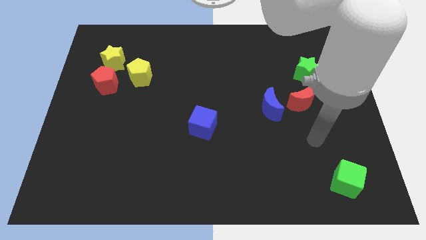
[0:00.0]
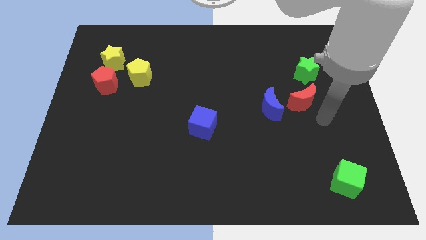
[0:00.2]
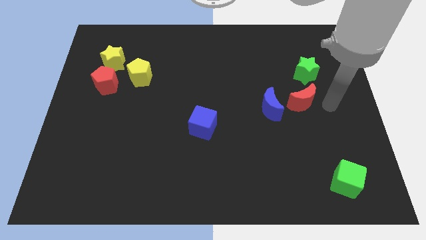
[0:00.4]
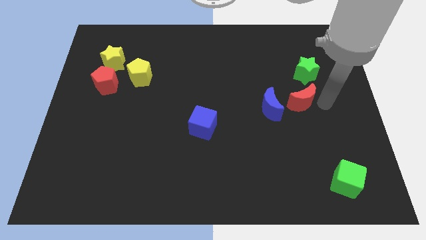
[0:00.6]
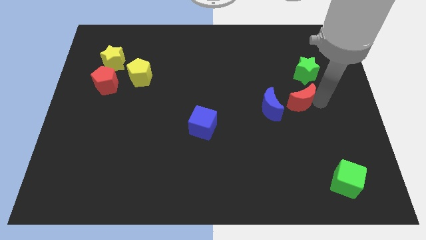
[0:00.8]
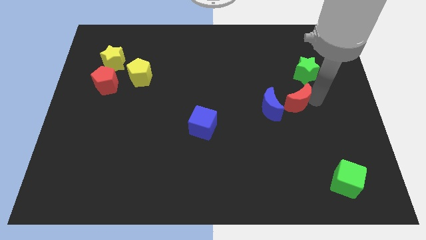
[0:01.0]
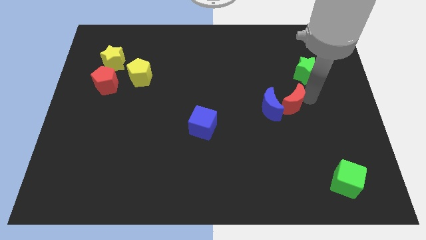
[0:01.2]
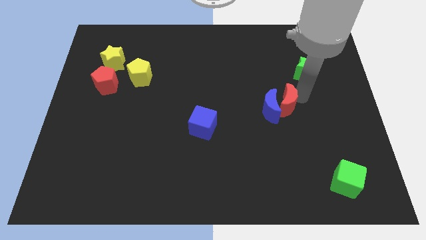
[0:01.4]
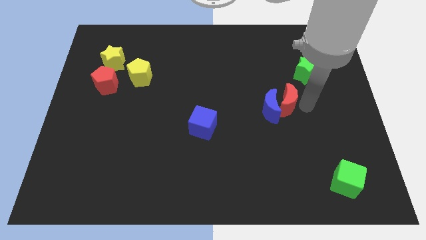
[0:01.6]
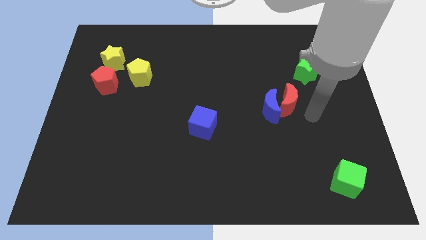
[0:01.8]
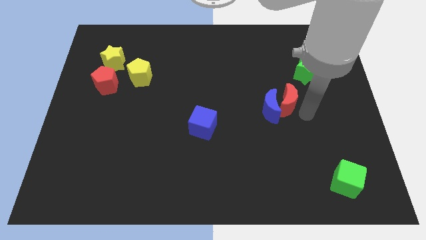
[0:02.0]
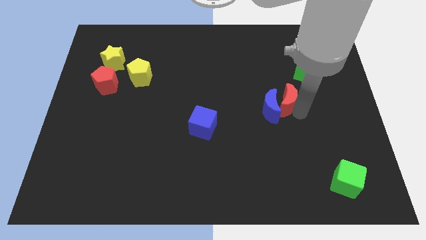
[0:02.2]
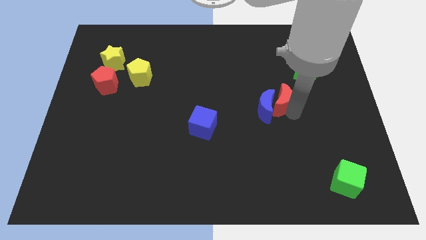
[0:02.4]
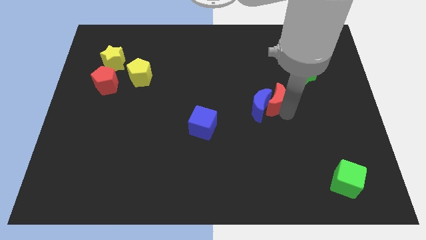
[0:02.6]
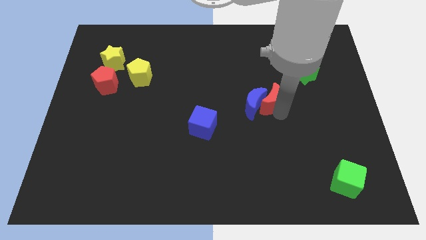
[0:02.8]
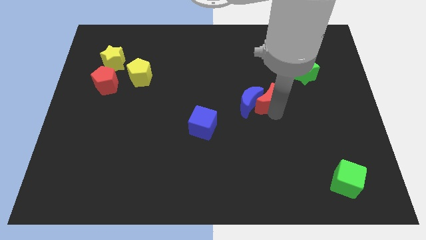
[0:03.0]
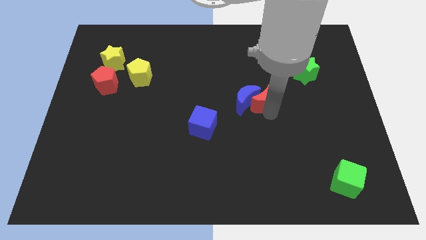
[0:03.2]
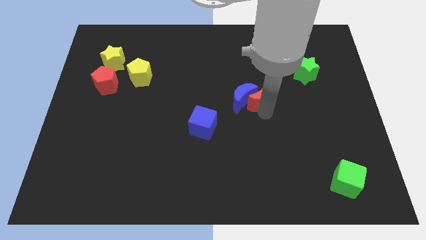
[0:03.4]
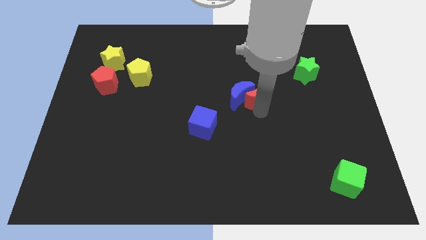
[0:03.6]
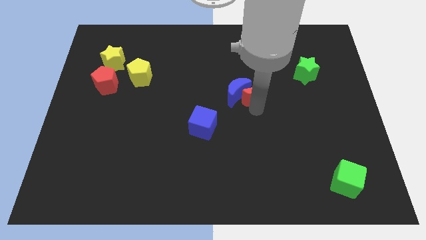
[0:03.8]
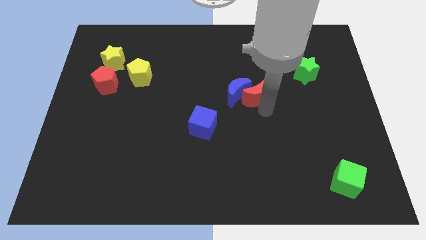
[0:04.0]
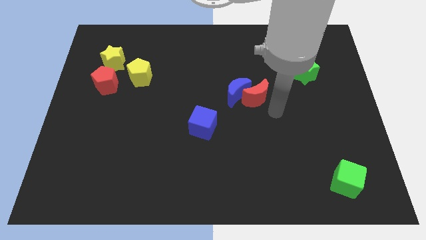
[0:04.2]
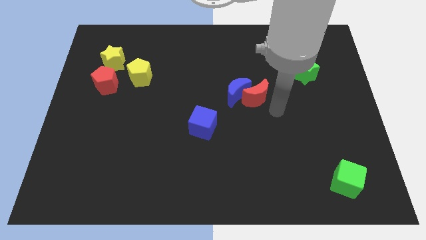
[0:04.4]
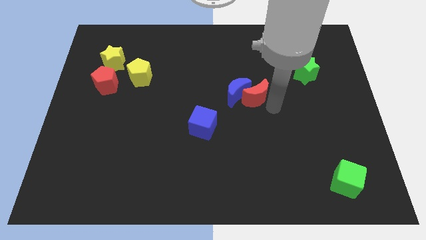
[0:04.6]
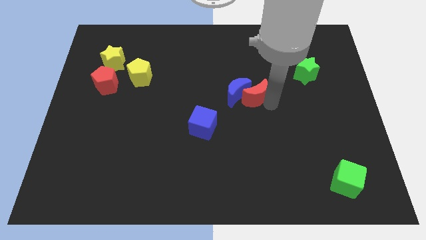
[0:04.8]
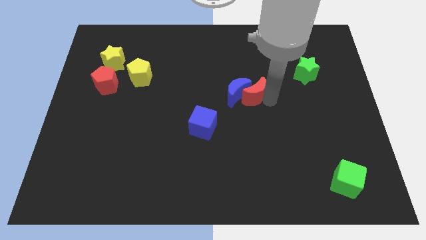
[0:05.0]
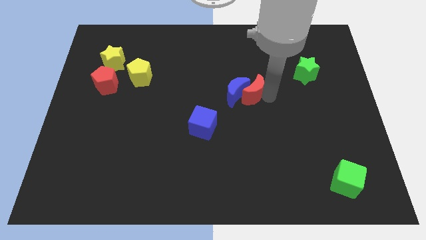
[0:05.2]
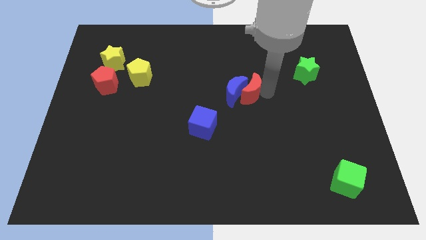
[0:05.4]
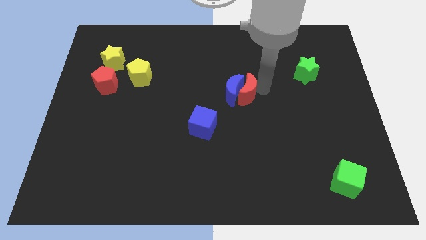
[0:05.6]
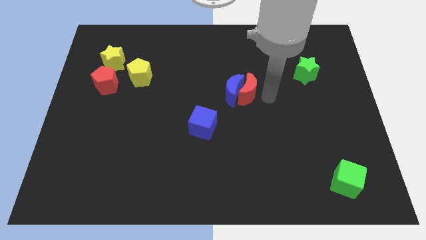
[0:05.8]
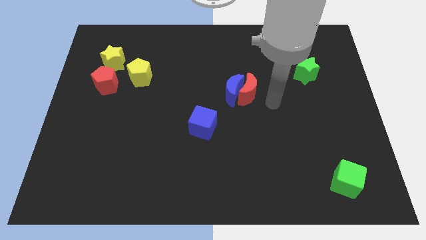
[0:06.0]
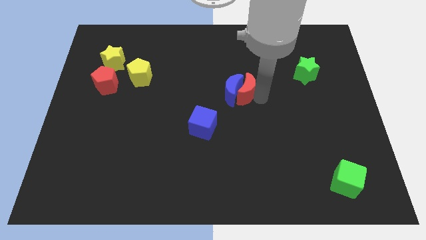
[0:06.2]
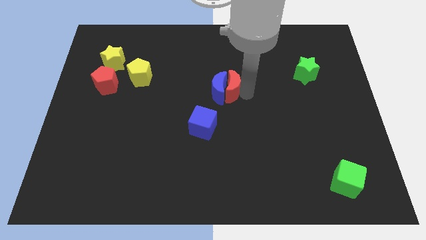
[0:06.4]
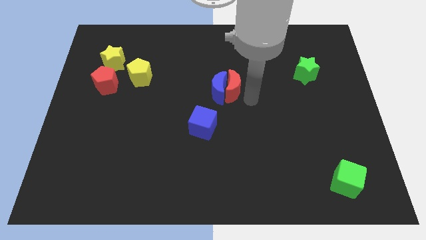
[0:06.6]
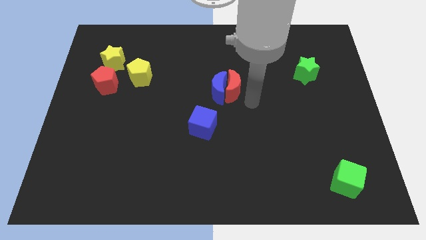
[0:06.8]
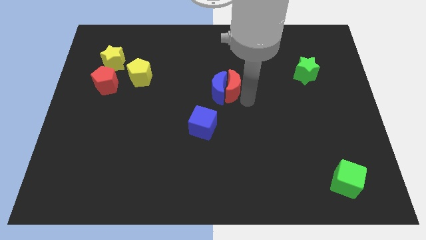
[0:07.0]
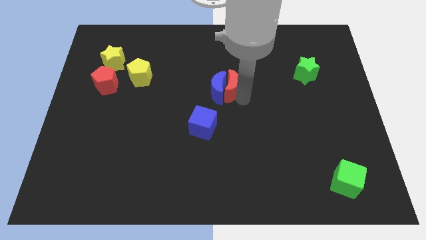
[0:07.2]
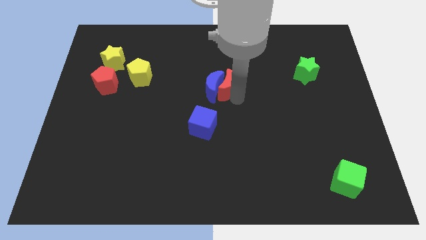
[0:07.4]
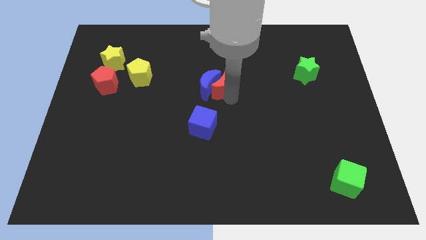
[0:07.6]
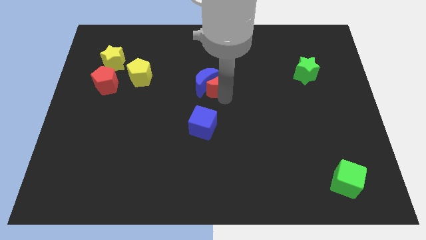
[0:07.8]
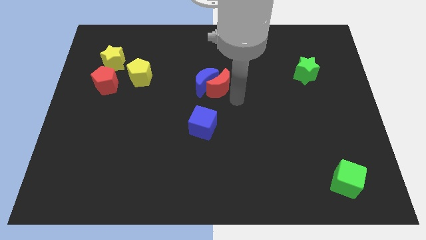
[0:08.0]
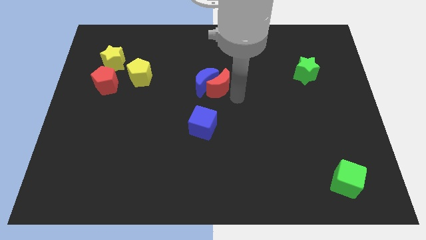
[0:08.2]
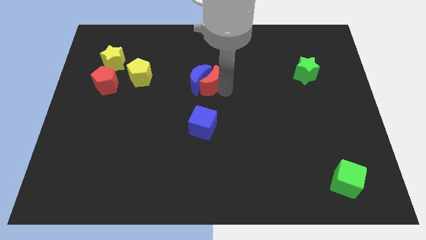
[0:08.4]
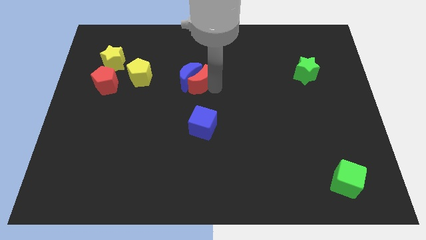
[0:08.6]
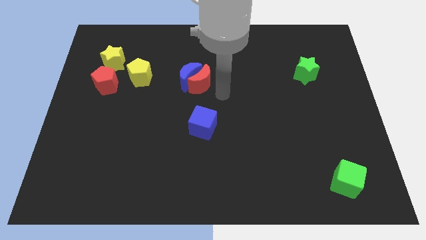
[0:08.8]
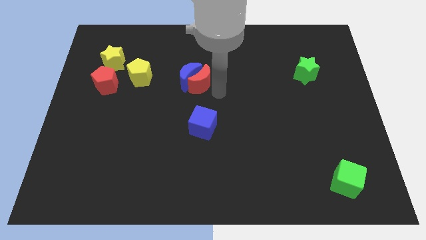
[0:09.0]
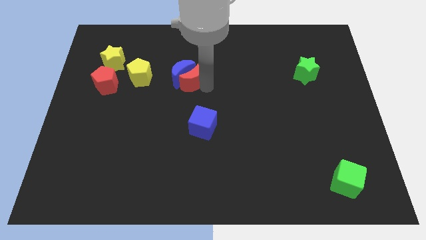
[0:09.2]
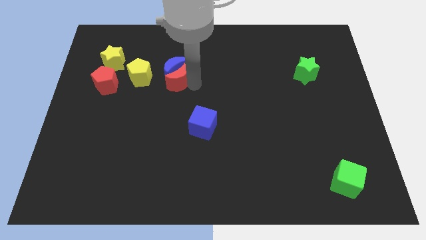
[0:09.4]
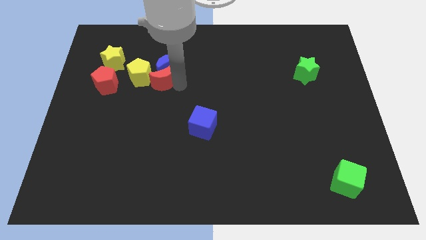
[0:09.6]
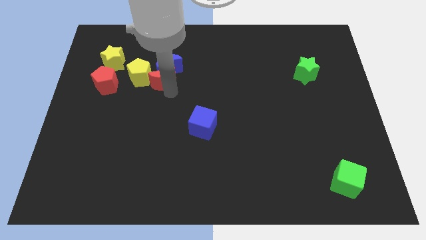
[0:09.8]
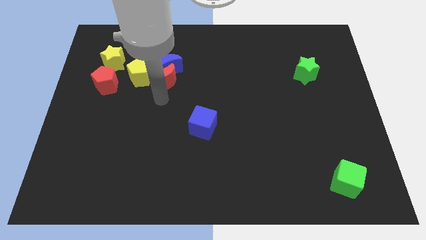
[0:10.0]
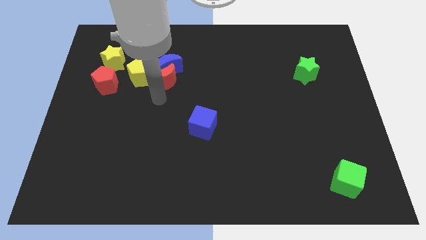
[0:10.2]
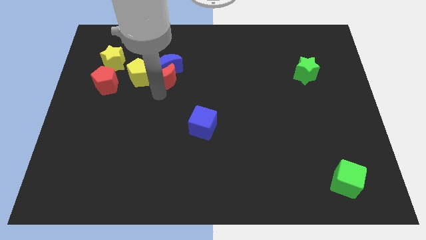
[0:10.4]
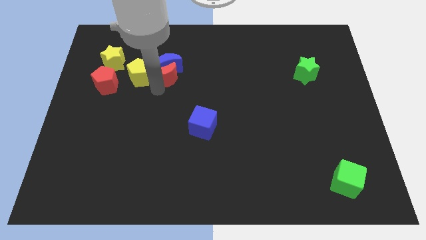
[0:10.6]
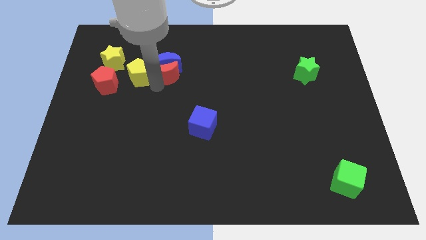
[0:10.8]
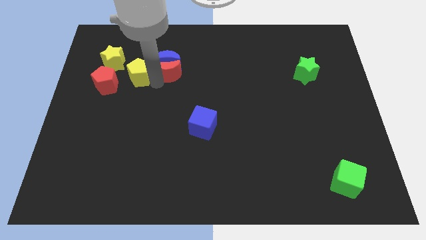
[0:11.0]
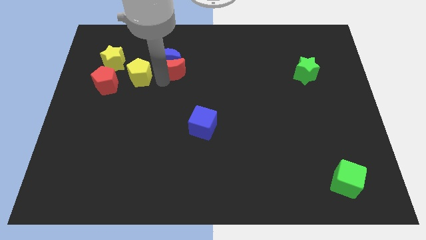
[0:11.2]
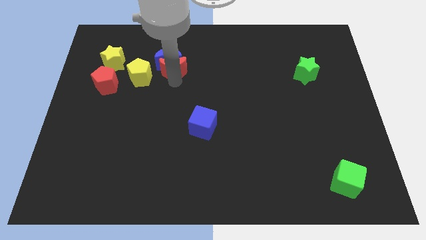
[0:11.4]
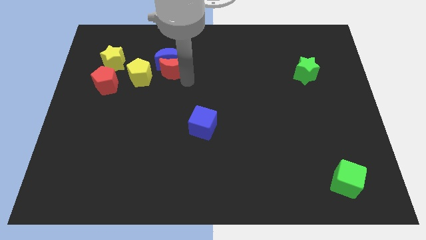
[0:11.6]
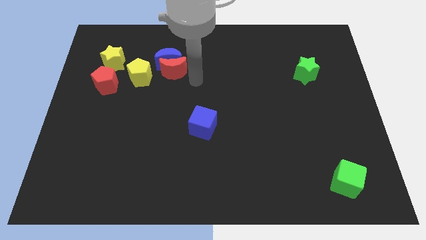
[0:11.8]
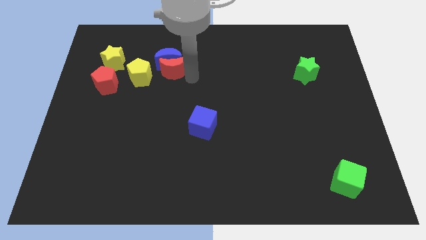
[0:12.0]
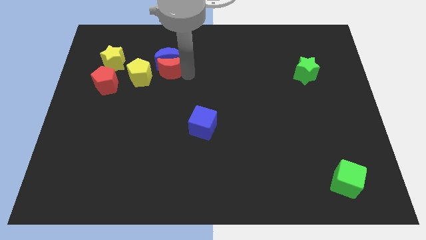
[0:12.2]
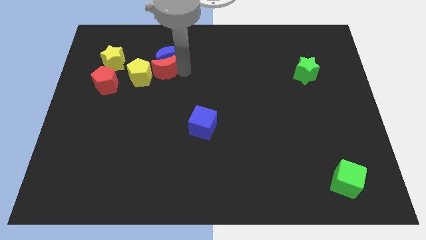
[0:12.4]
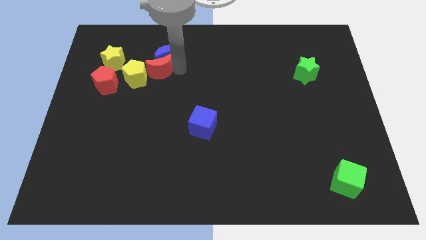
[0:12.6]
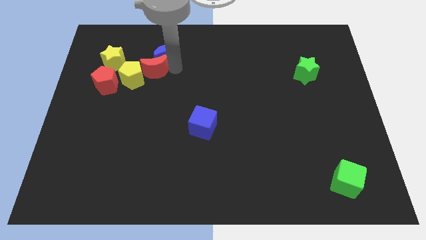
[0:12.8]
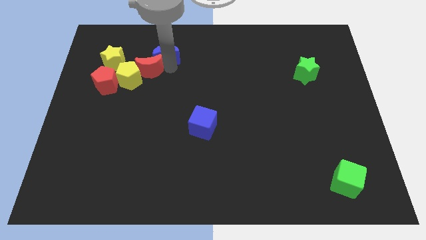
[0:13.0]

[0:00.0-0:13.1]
slide the red moon diagonally up and to the right of the red pentagon

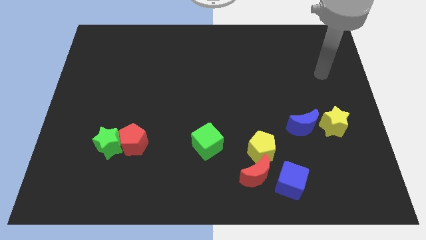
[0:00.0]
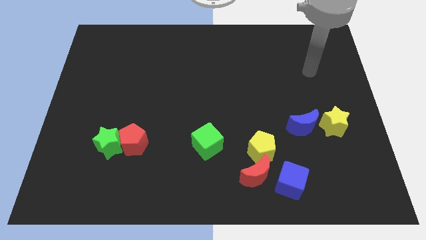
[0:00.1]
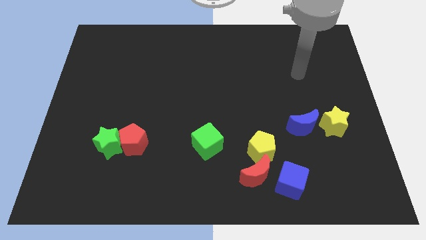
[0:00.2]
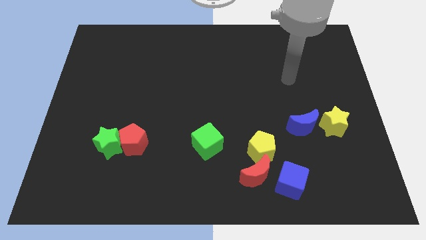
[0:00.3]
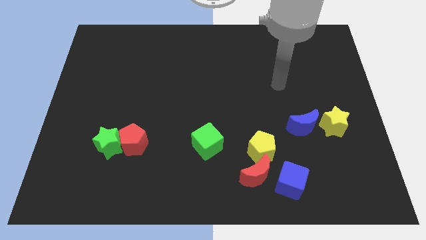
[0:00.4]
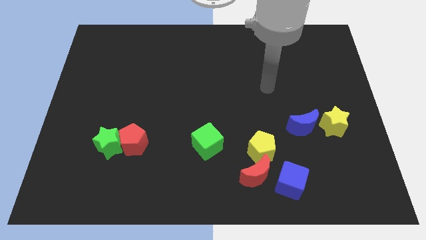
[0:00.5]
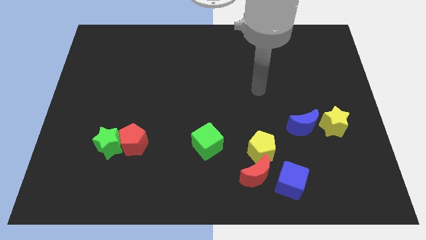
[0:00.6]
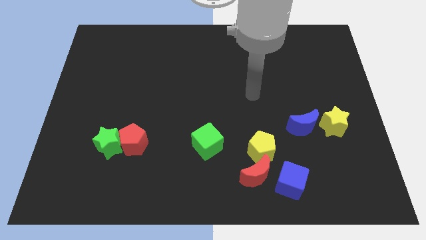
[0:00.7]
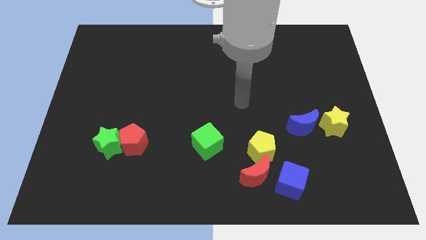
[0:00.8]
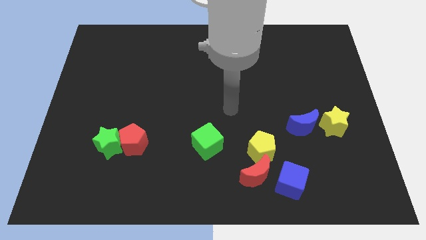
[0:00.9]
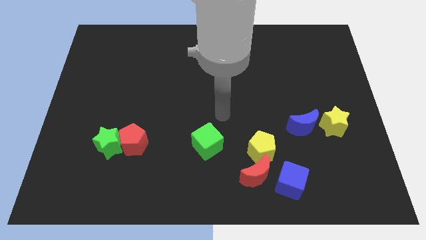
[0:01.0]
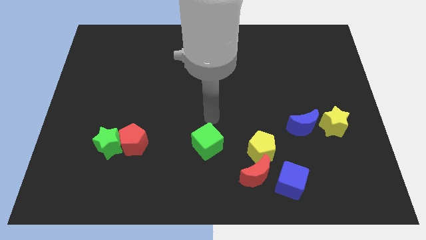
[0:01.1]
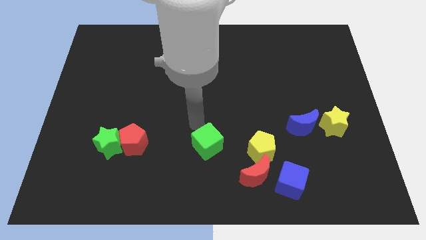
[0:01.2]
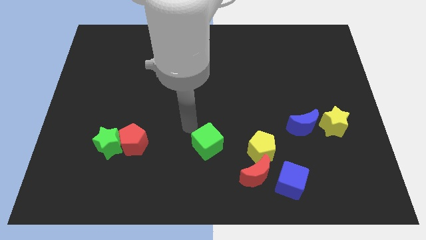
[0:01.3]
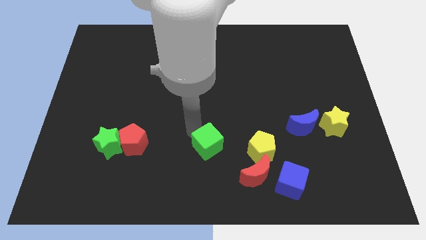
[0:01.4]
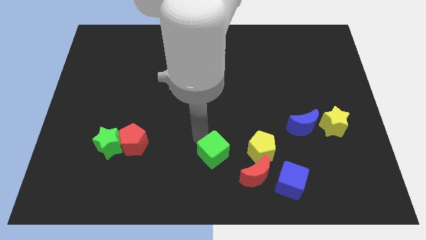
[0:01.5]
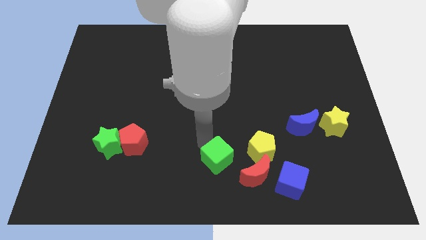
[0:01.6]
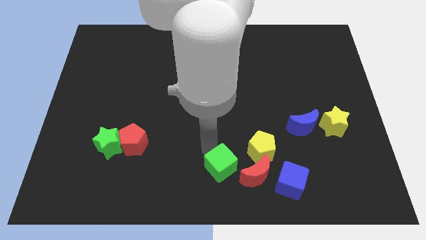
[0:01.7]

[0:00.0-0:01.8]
put the green cube diagonally down and to the left of the yellow pentagon
